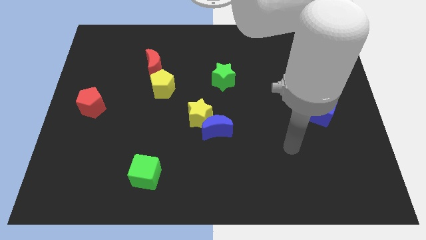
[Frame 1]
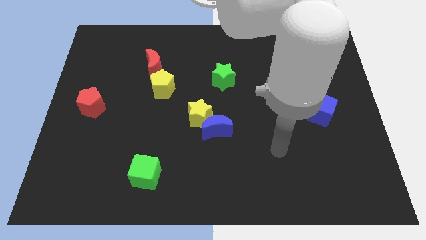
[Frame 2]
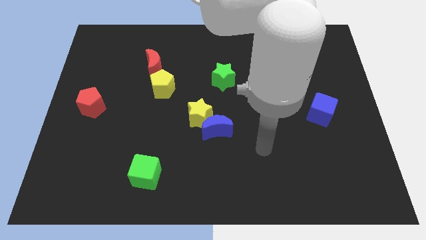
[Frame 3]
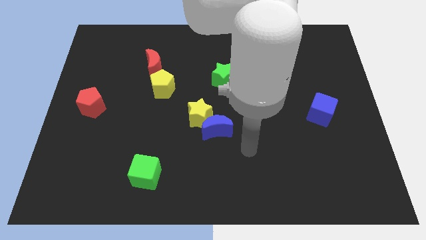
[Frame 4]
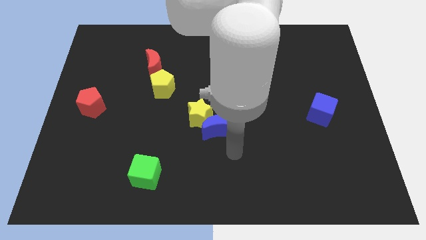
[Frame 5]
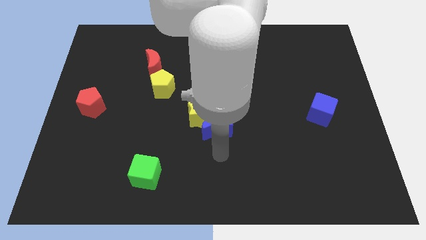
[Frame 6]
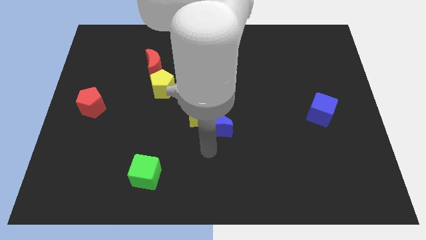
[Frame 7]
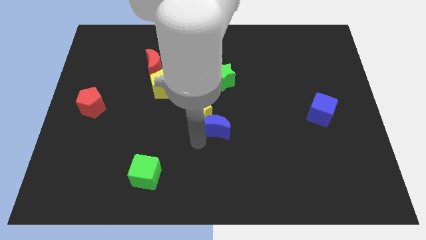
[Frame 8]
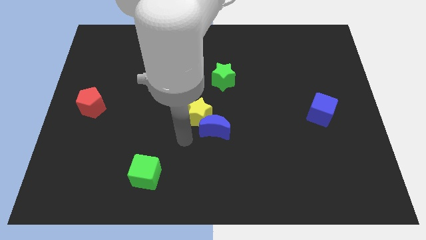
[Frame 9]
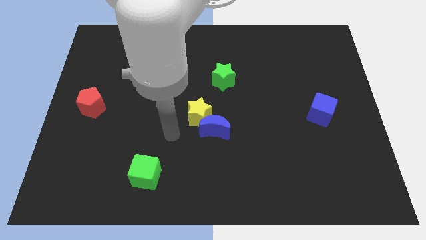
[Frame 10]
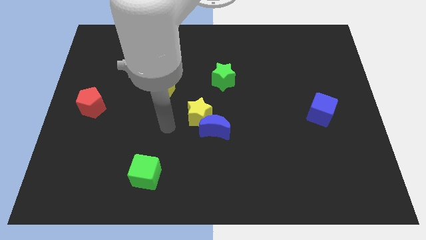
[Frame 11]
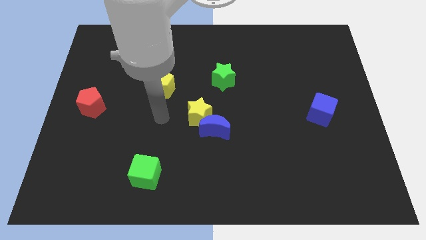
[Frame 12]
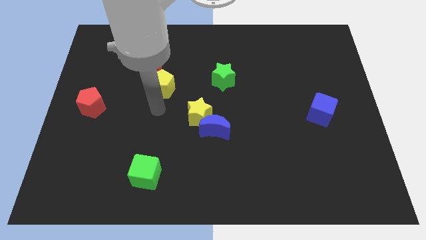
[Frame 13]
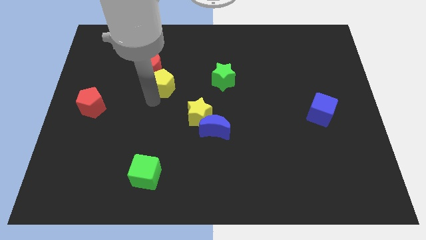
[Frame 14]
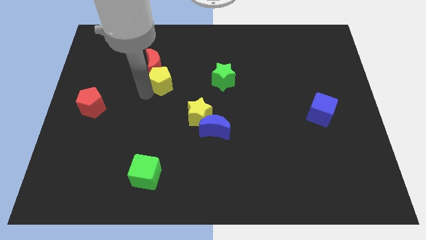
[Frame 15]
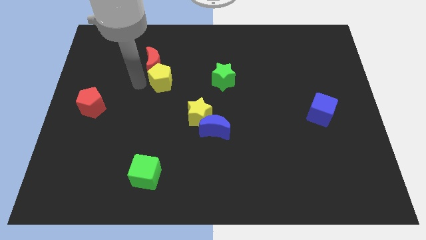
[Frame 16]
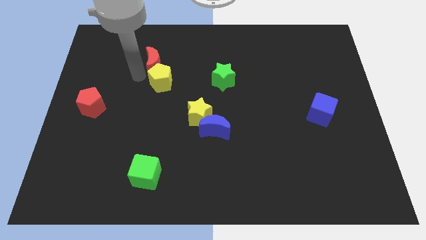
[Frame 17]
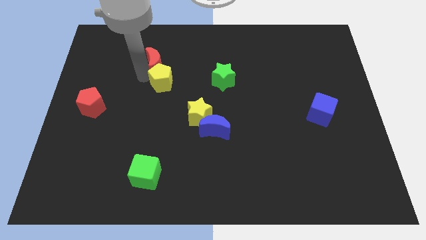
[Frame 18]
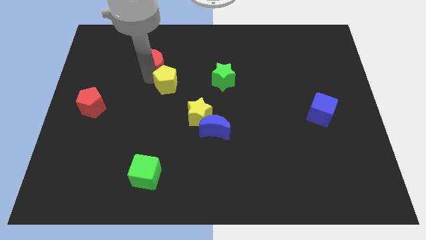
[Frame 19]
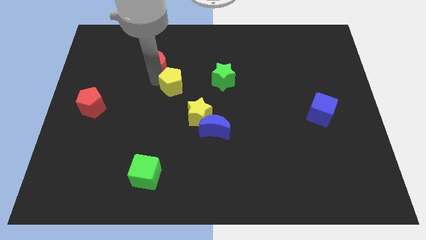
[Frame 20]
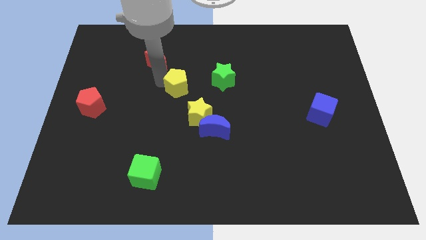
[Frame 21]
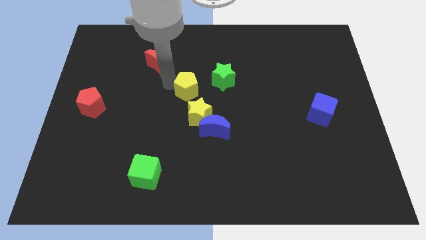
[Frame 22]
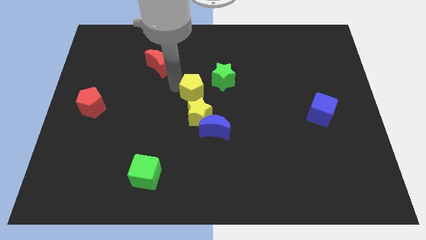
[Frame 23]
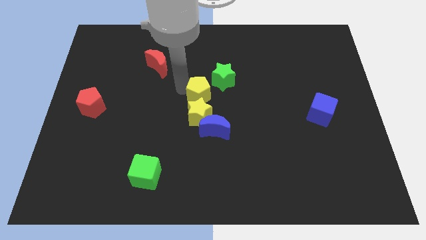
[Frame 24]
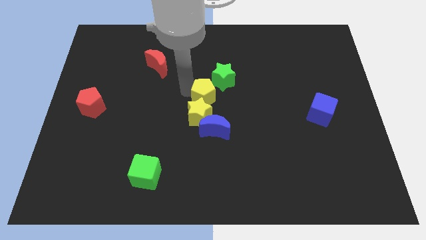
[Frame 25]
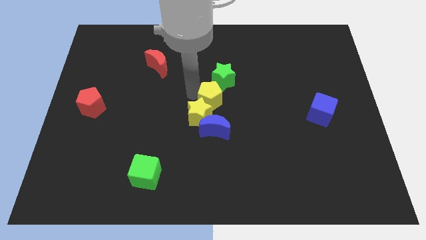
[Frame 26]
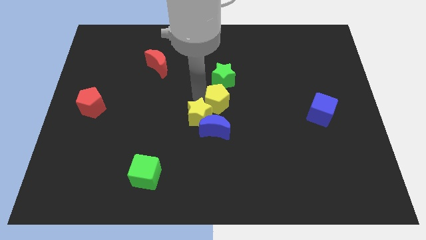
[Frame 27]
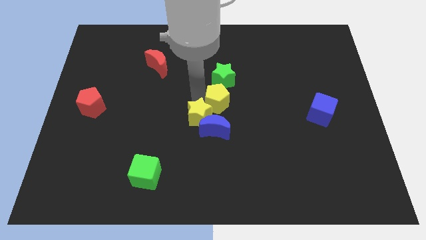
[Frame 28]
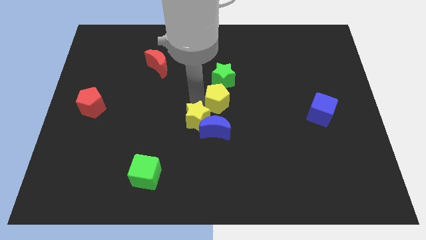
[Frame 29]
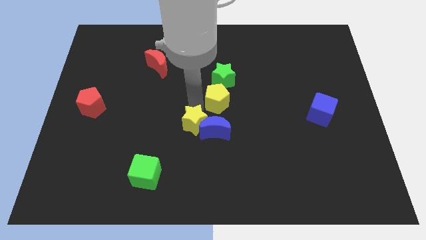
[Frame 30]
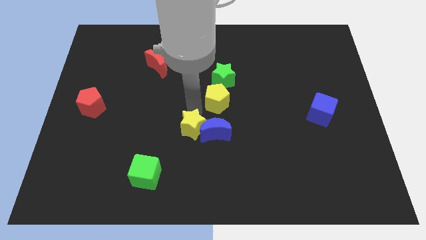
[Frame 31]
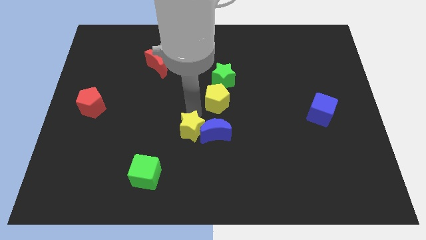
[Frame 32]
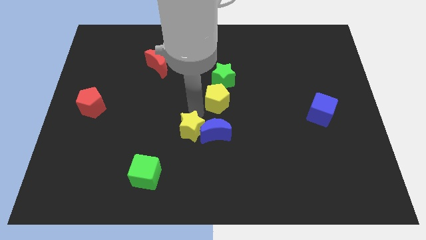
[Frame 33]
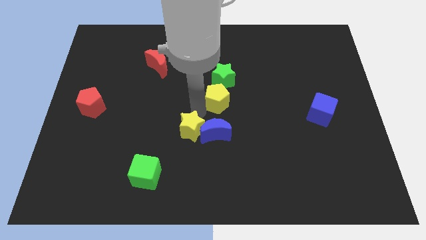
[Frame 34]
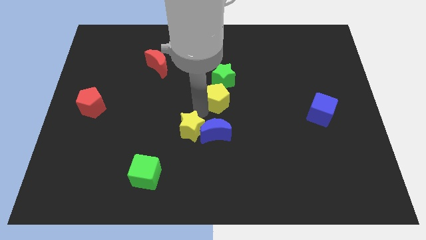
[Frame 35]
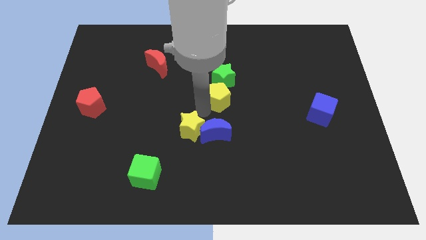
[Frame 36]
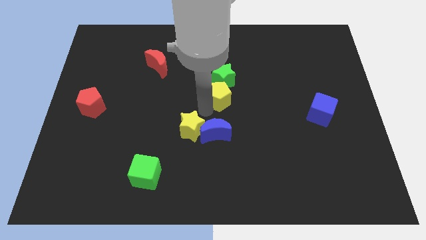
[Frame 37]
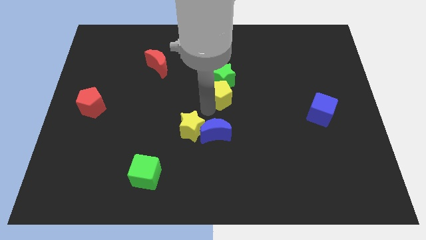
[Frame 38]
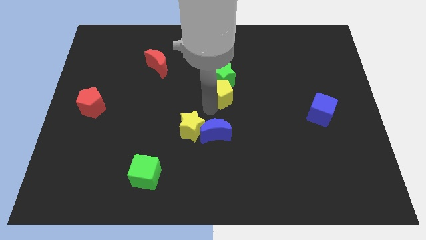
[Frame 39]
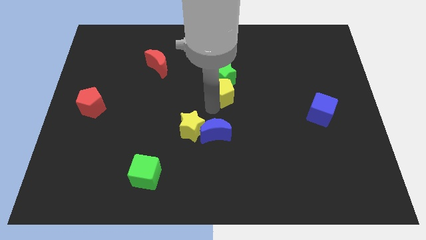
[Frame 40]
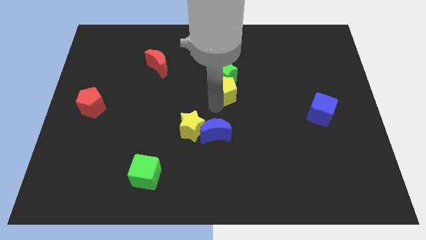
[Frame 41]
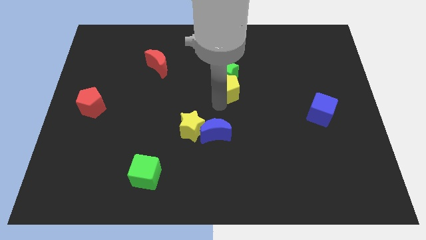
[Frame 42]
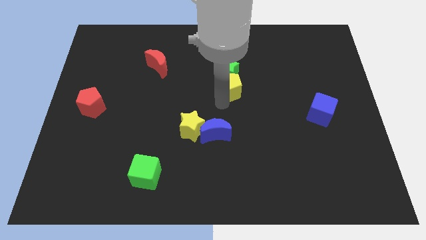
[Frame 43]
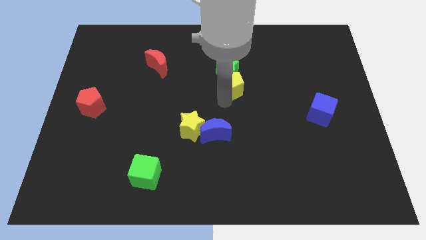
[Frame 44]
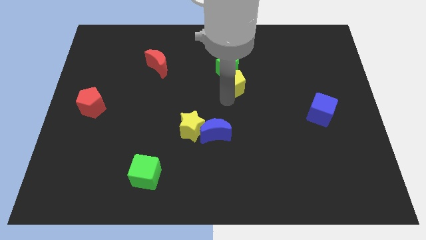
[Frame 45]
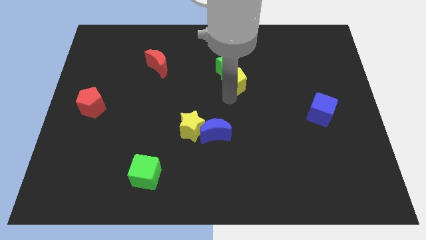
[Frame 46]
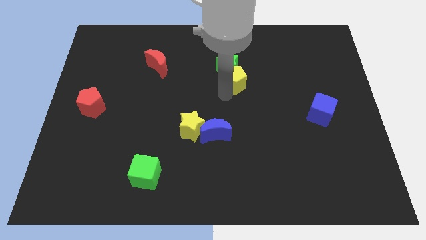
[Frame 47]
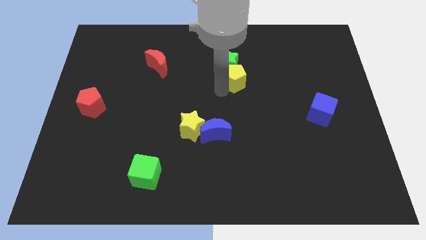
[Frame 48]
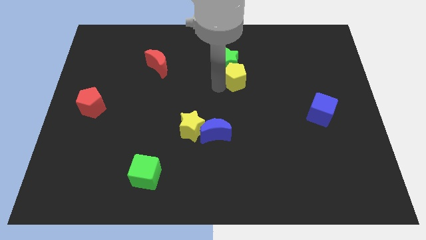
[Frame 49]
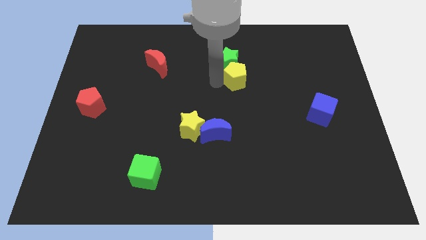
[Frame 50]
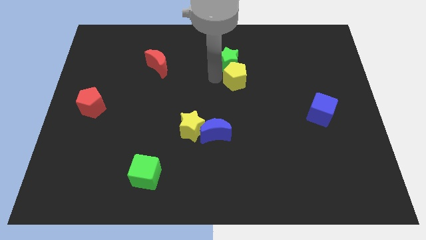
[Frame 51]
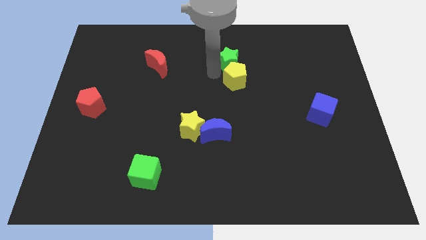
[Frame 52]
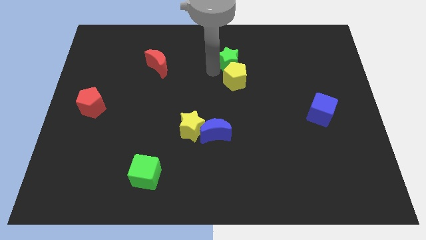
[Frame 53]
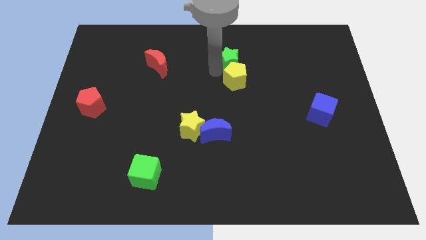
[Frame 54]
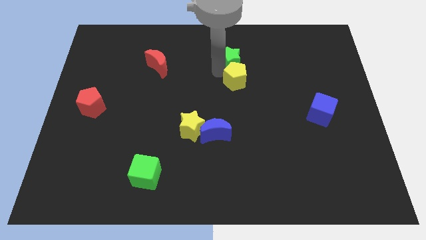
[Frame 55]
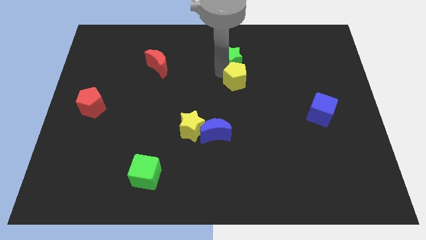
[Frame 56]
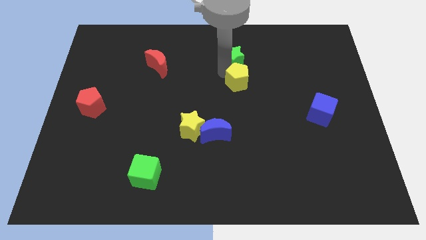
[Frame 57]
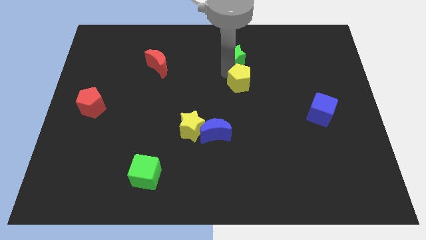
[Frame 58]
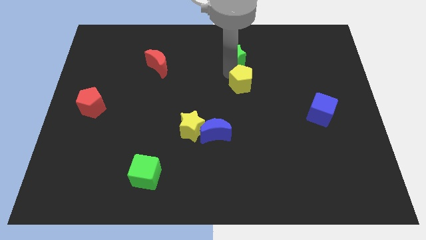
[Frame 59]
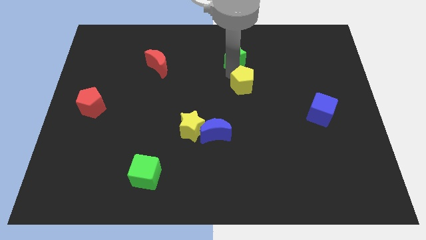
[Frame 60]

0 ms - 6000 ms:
slide the yellow pentagon to the right

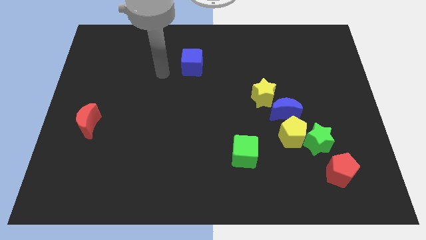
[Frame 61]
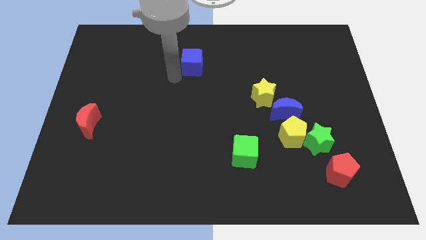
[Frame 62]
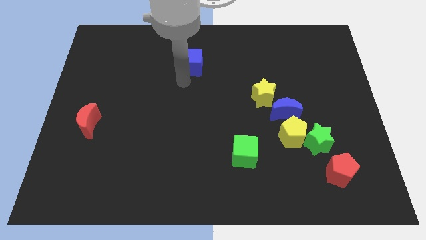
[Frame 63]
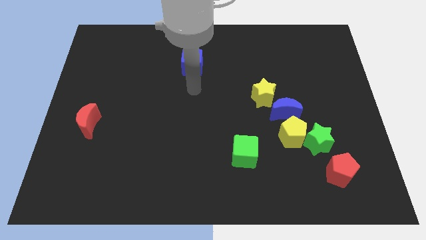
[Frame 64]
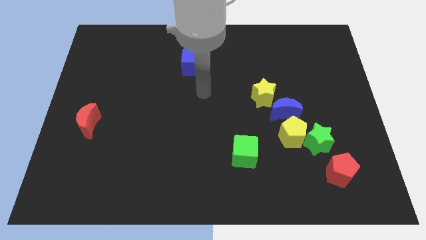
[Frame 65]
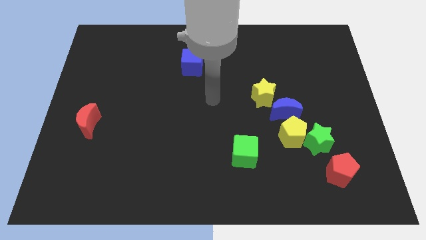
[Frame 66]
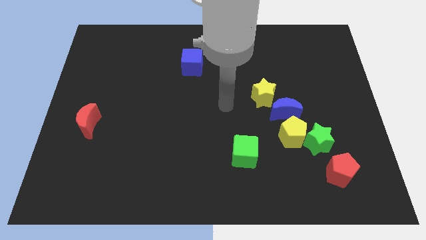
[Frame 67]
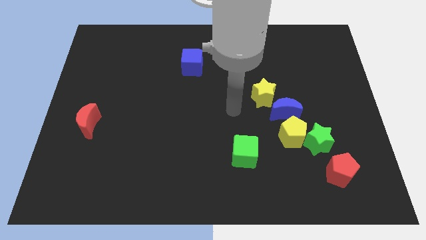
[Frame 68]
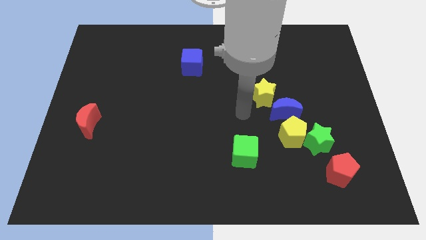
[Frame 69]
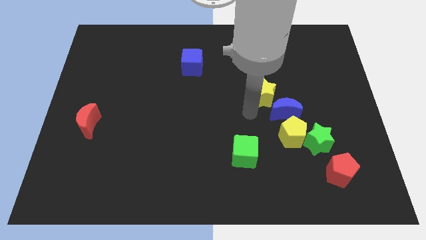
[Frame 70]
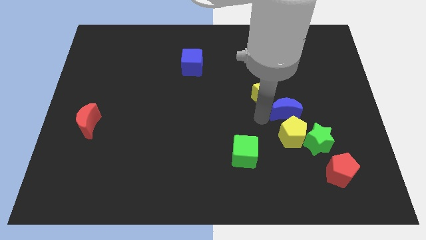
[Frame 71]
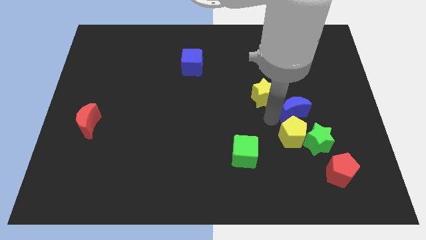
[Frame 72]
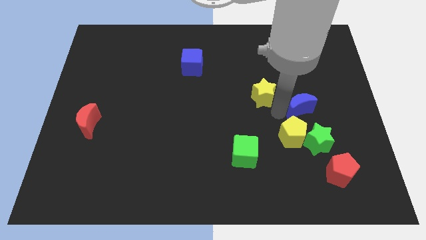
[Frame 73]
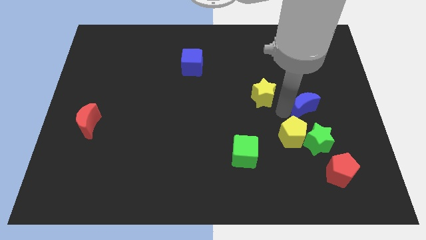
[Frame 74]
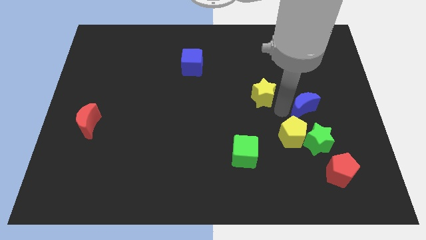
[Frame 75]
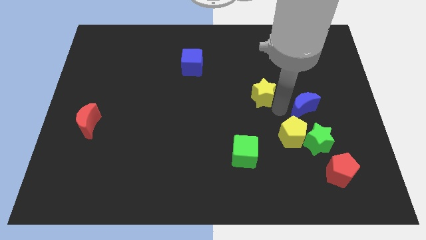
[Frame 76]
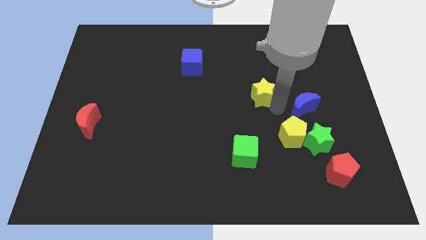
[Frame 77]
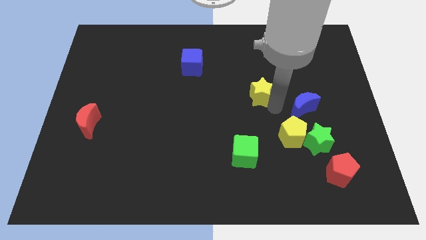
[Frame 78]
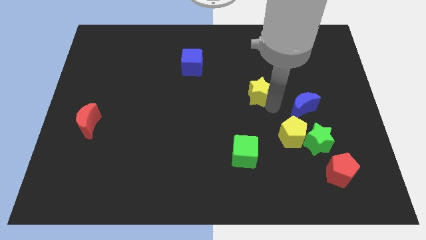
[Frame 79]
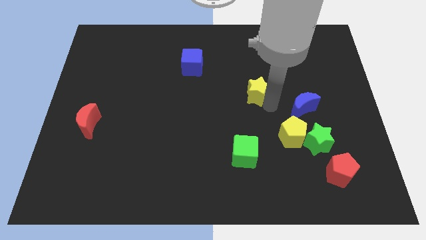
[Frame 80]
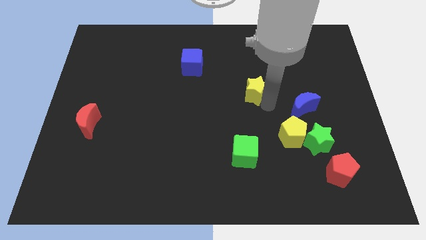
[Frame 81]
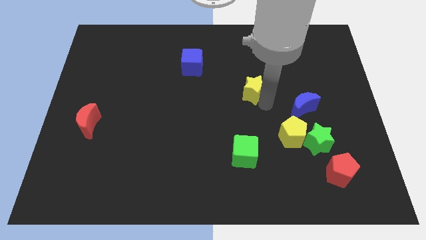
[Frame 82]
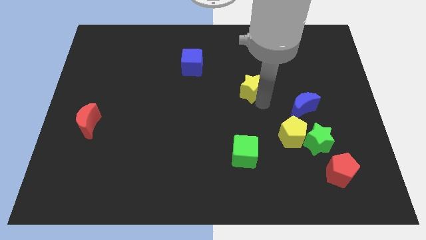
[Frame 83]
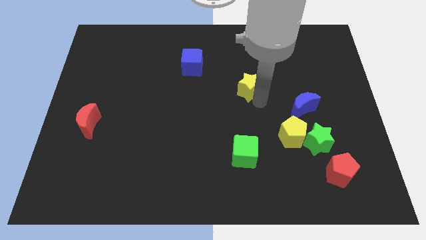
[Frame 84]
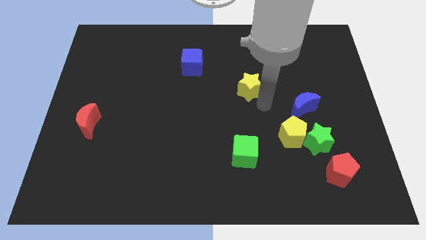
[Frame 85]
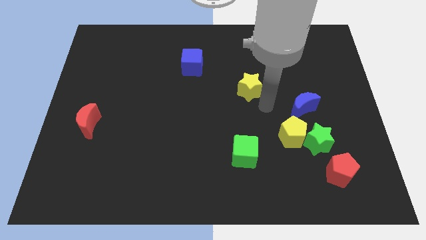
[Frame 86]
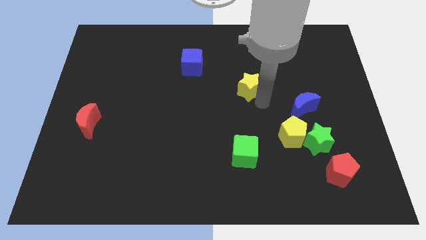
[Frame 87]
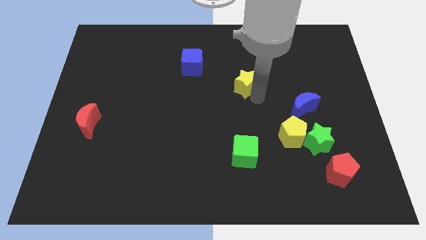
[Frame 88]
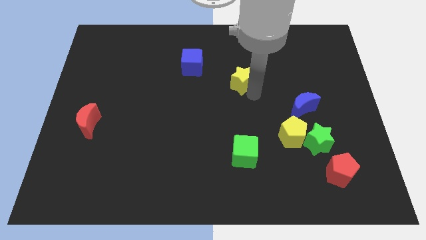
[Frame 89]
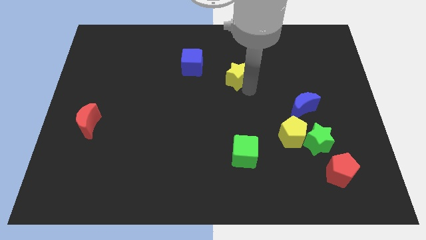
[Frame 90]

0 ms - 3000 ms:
slightly push the yellow star up and to the left diagonally
